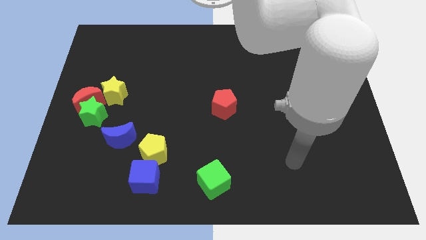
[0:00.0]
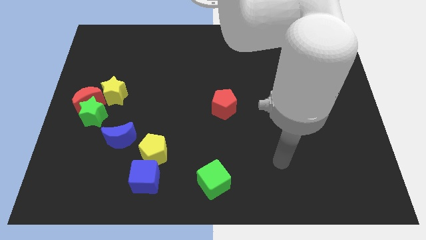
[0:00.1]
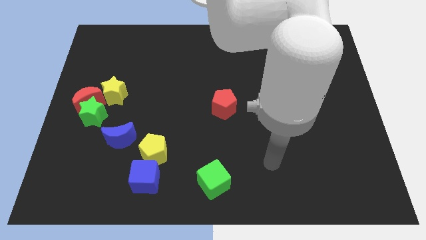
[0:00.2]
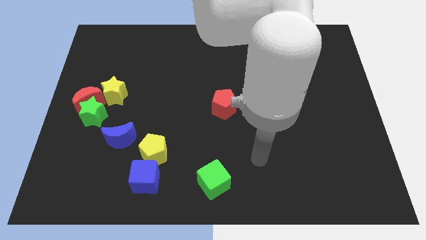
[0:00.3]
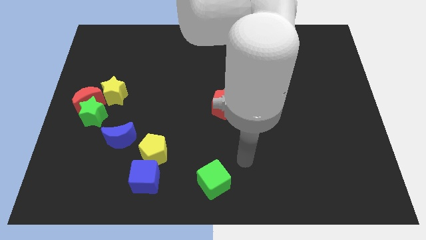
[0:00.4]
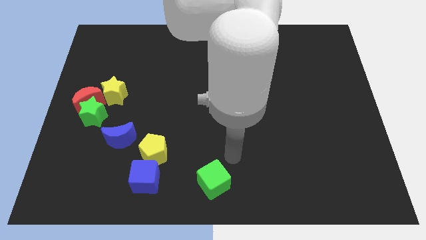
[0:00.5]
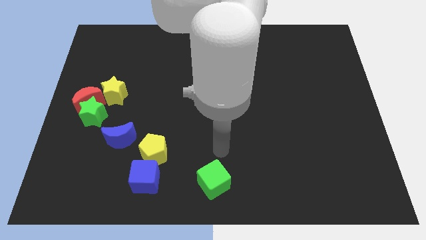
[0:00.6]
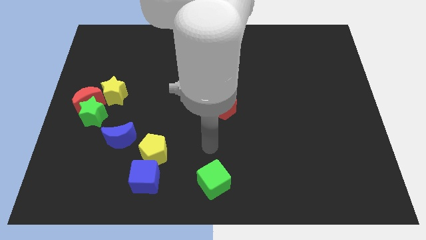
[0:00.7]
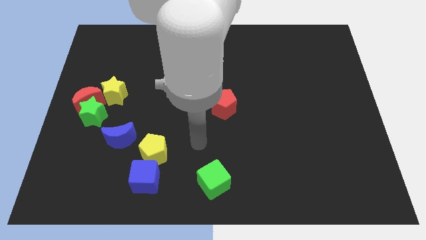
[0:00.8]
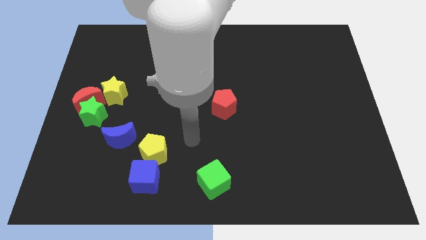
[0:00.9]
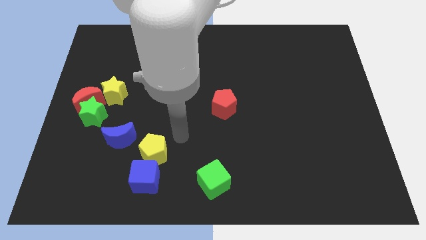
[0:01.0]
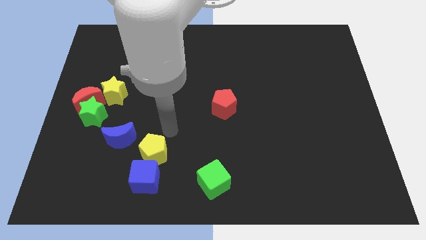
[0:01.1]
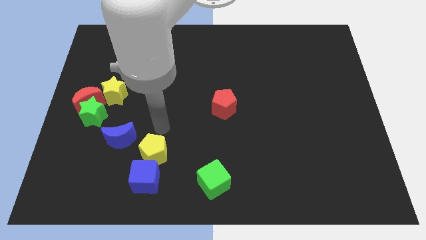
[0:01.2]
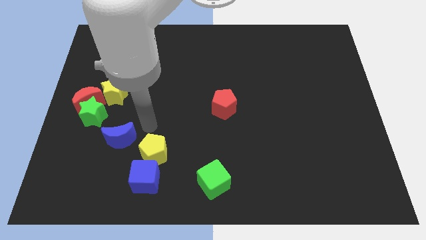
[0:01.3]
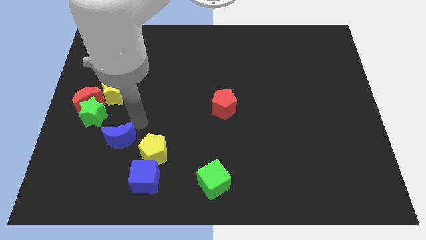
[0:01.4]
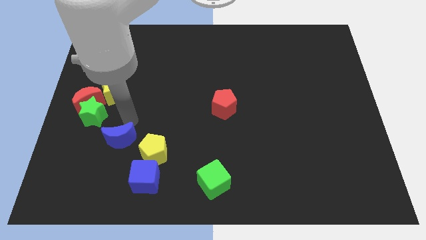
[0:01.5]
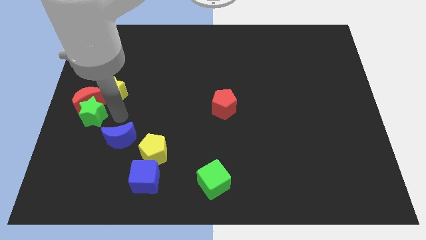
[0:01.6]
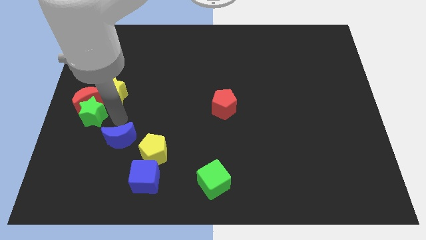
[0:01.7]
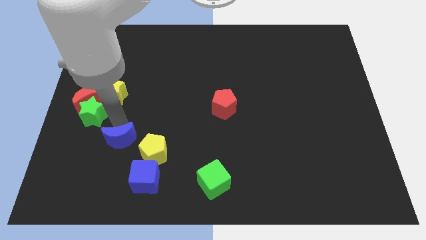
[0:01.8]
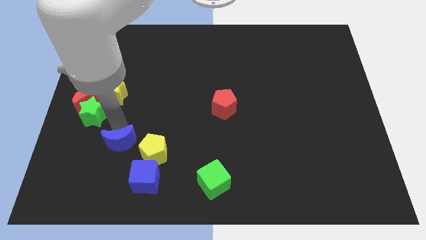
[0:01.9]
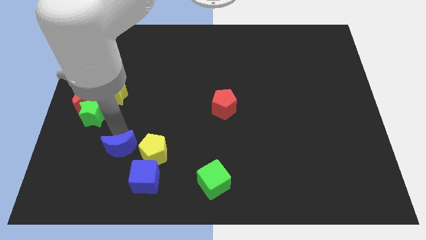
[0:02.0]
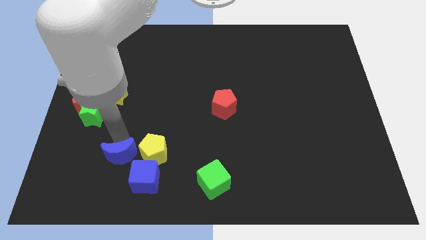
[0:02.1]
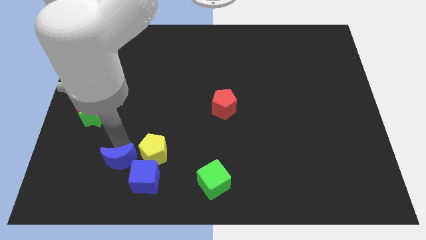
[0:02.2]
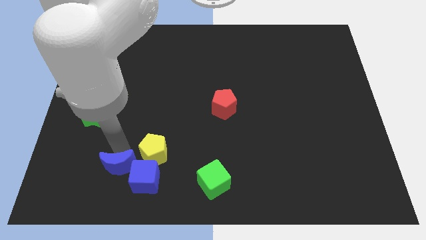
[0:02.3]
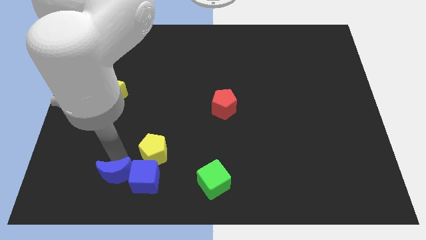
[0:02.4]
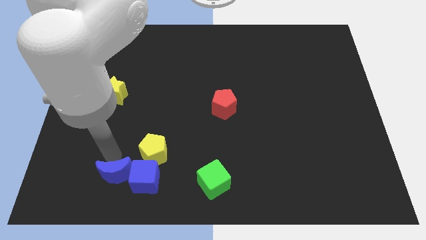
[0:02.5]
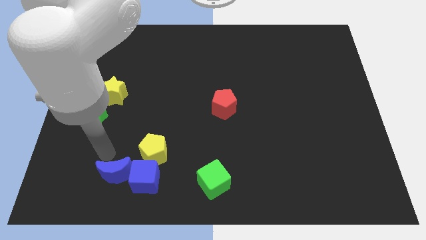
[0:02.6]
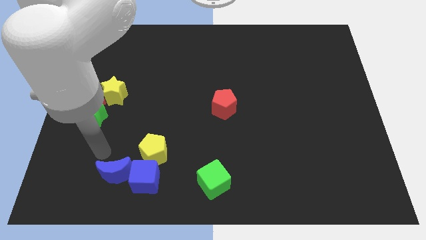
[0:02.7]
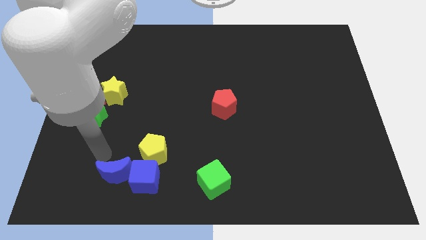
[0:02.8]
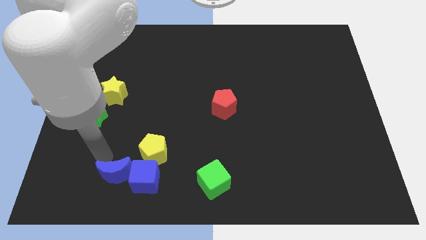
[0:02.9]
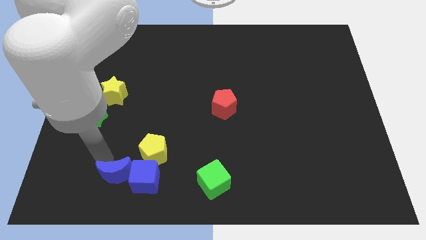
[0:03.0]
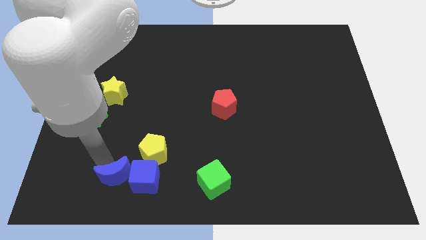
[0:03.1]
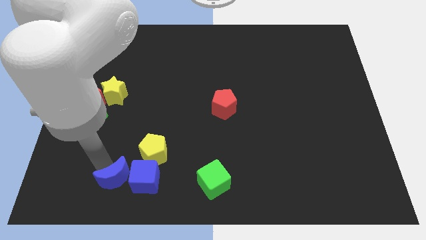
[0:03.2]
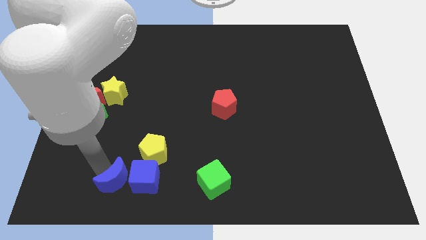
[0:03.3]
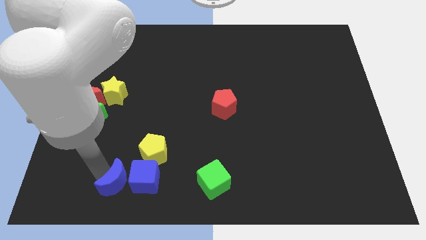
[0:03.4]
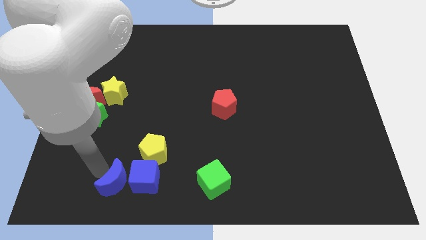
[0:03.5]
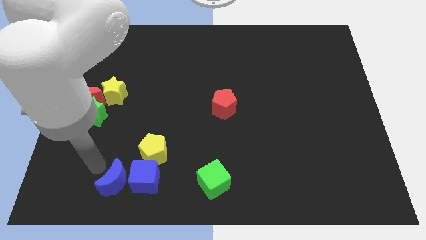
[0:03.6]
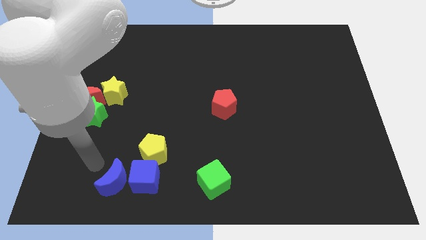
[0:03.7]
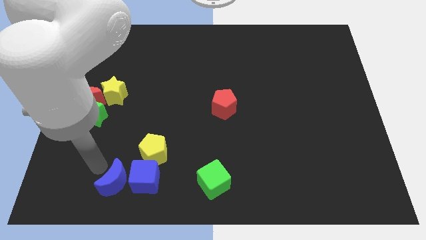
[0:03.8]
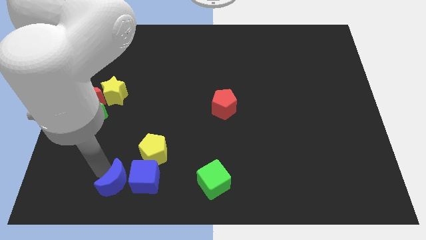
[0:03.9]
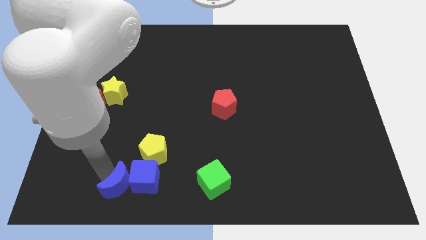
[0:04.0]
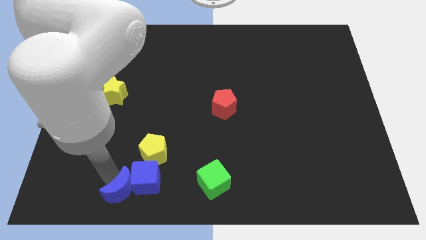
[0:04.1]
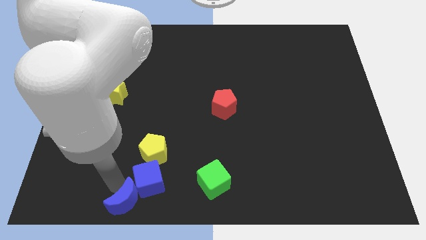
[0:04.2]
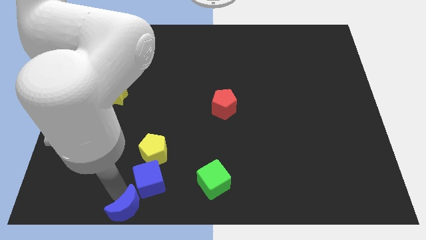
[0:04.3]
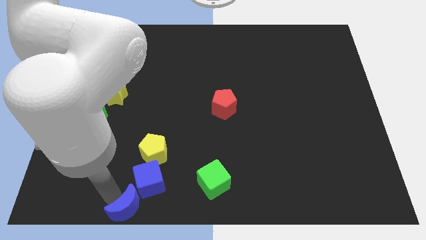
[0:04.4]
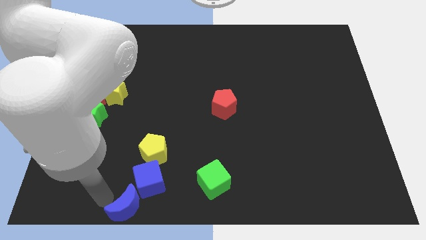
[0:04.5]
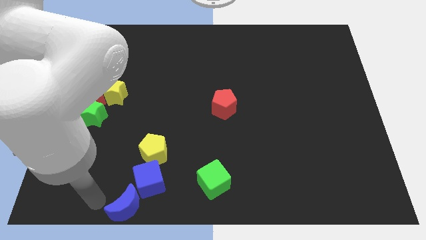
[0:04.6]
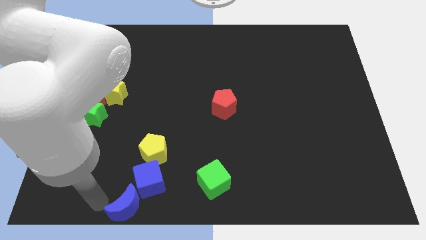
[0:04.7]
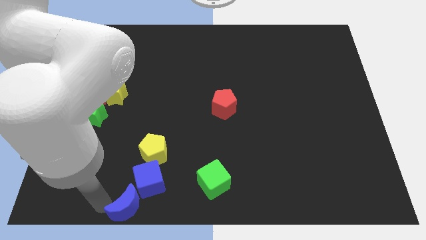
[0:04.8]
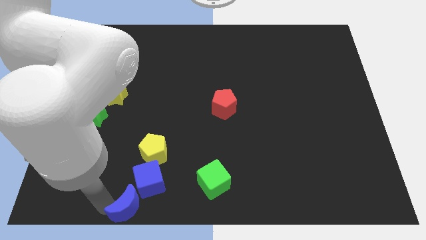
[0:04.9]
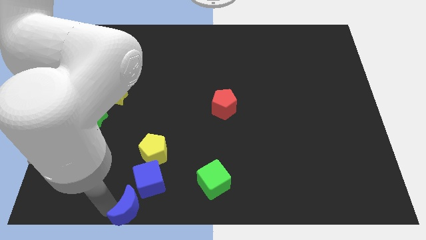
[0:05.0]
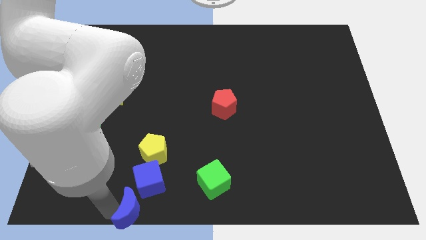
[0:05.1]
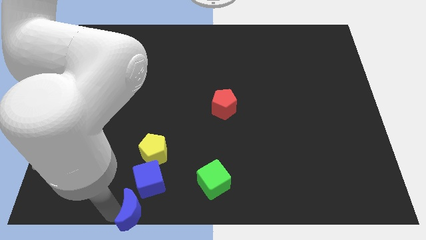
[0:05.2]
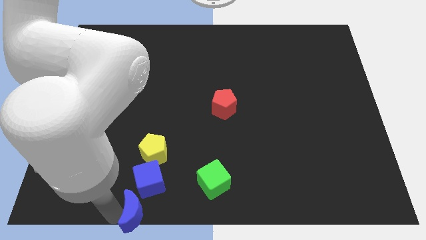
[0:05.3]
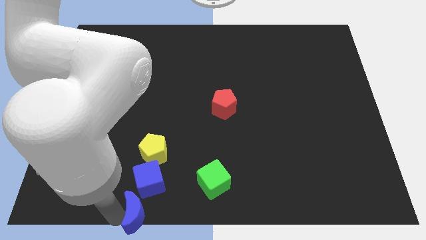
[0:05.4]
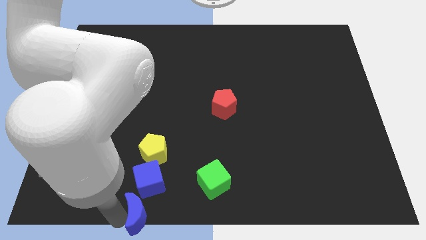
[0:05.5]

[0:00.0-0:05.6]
push the blue moon to the bottom side
